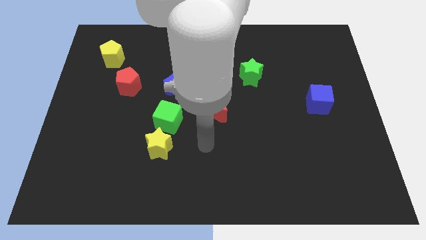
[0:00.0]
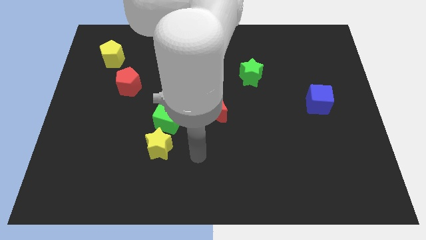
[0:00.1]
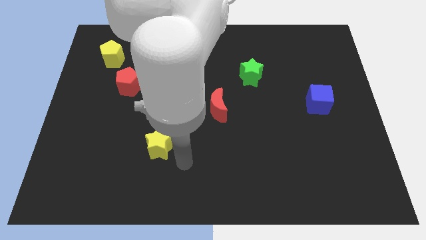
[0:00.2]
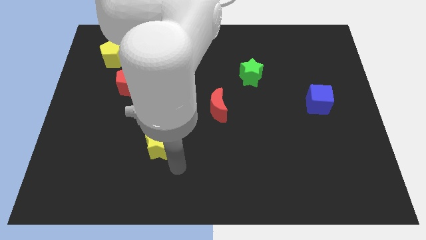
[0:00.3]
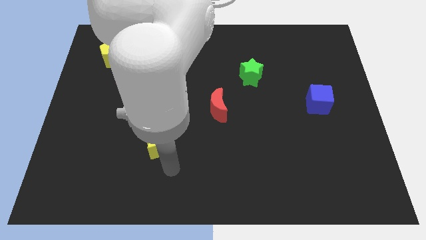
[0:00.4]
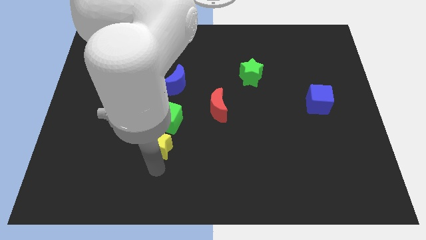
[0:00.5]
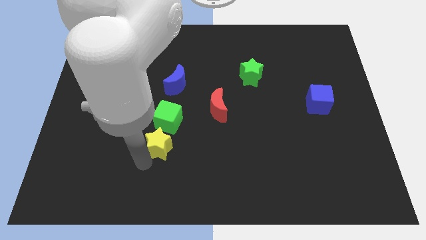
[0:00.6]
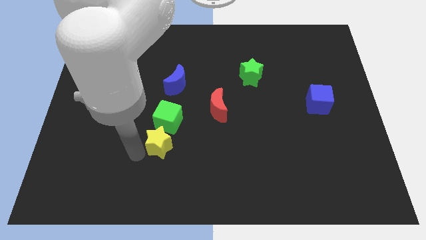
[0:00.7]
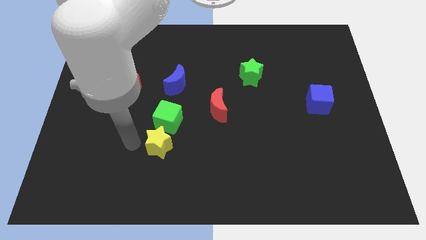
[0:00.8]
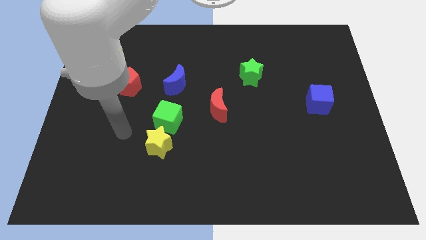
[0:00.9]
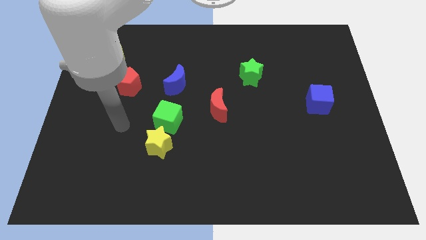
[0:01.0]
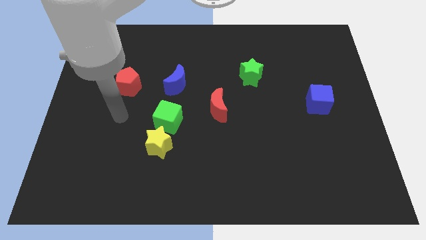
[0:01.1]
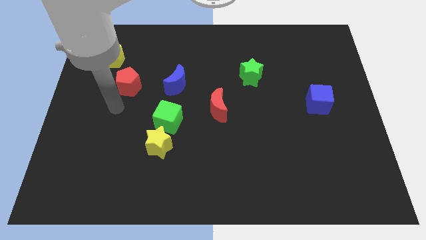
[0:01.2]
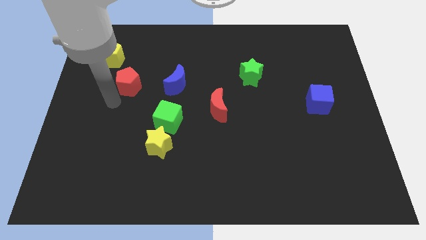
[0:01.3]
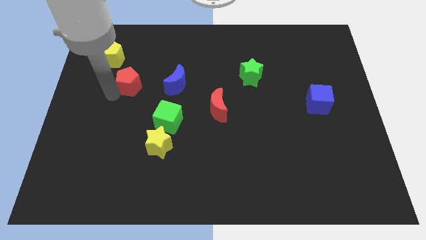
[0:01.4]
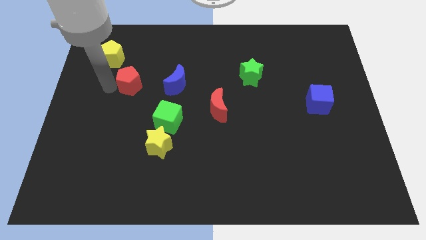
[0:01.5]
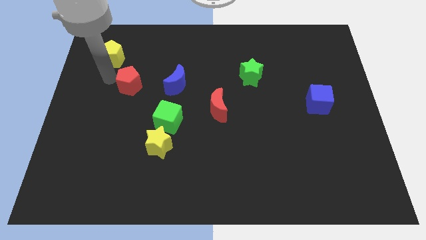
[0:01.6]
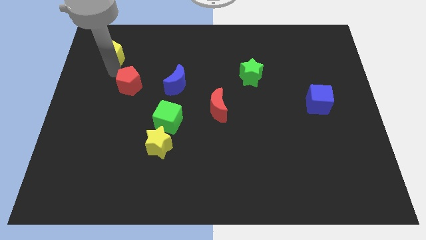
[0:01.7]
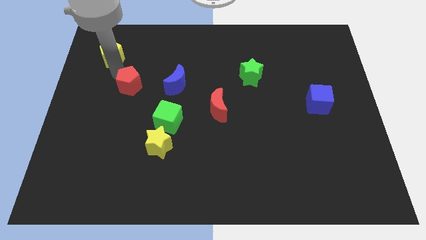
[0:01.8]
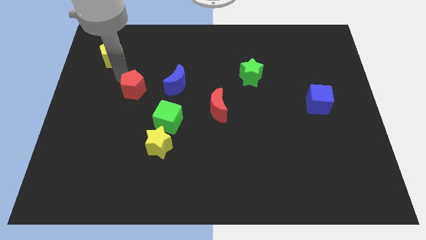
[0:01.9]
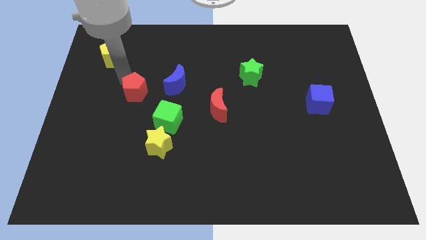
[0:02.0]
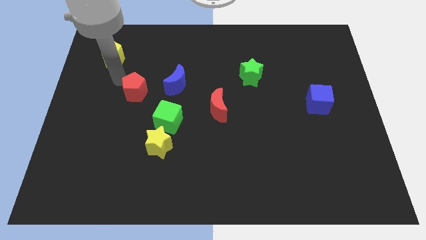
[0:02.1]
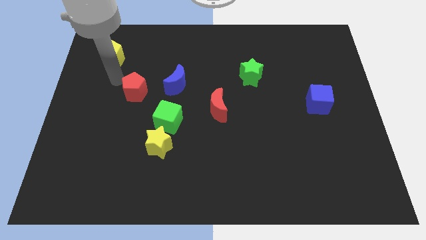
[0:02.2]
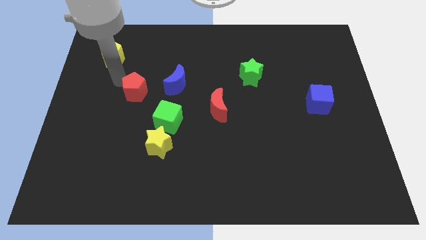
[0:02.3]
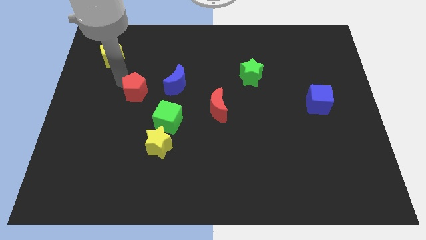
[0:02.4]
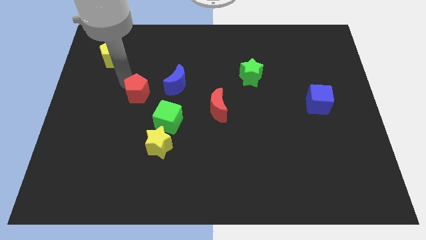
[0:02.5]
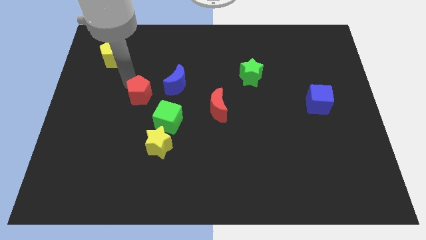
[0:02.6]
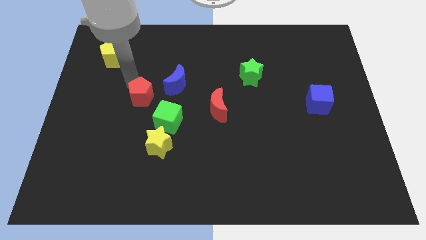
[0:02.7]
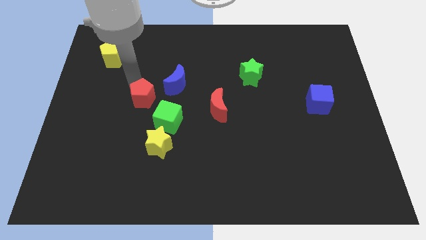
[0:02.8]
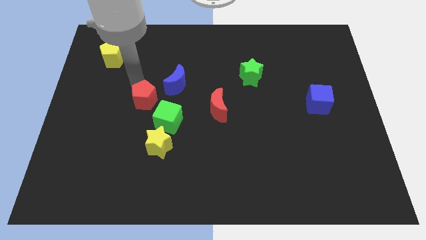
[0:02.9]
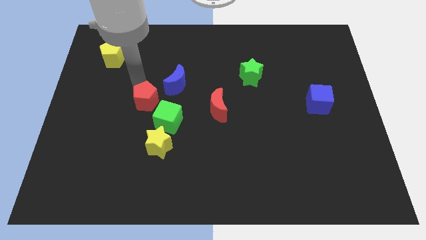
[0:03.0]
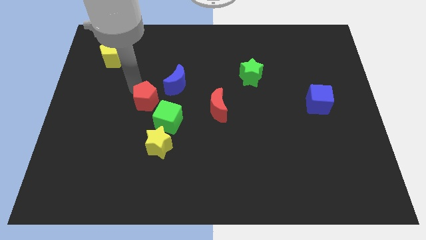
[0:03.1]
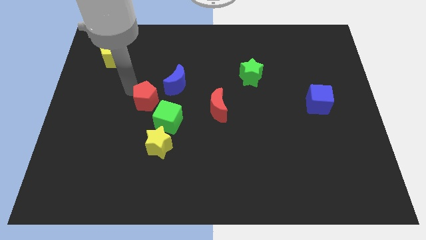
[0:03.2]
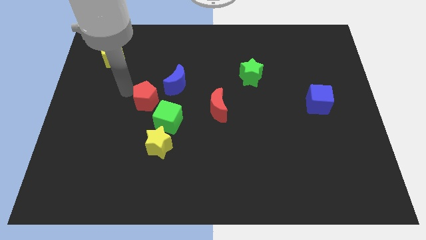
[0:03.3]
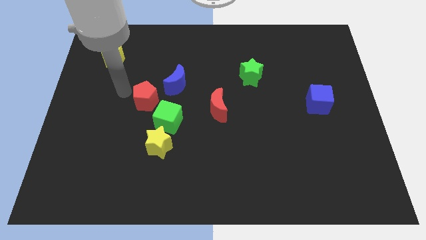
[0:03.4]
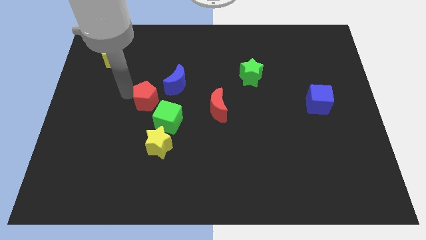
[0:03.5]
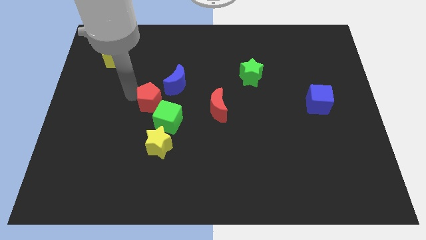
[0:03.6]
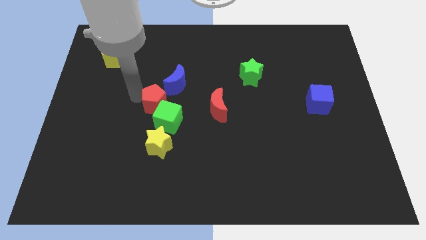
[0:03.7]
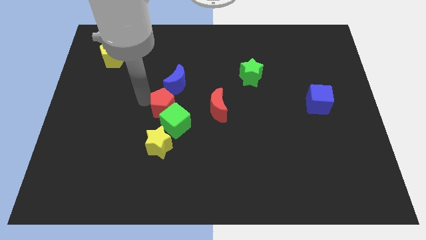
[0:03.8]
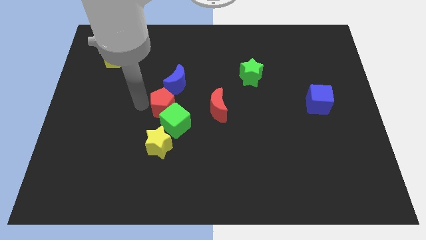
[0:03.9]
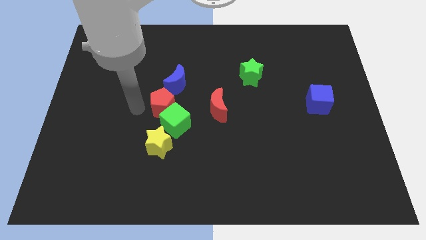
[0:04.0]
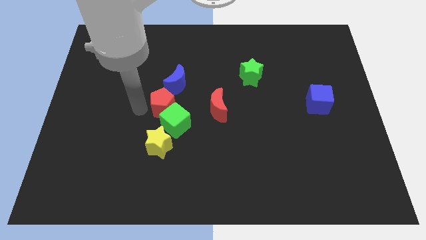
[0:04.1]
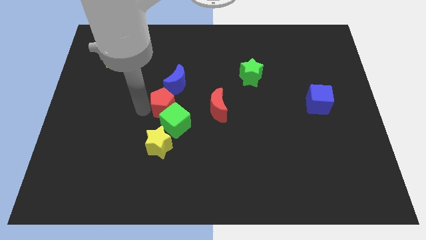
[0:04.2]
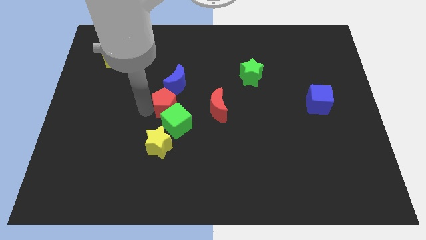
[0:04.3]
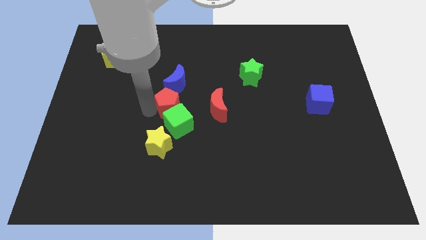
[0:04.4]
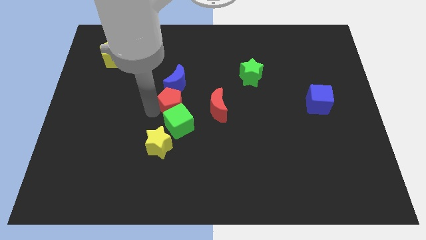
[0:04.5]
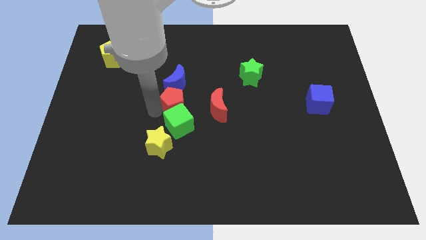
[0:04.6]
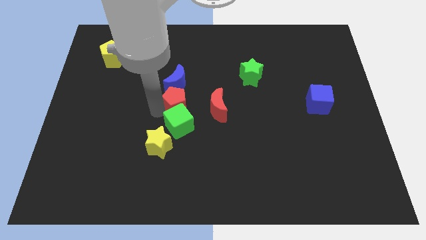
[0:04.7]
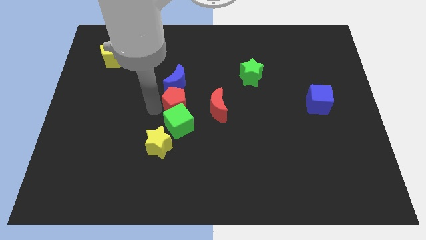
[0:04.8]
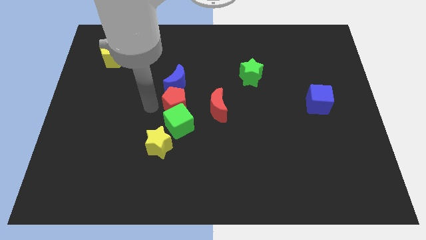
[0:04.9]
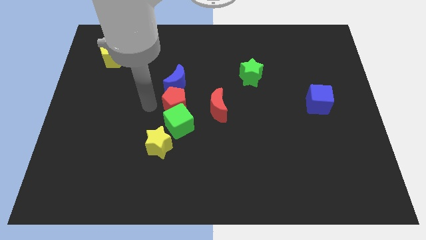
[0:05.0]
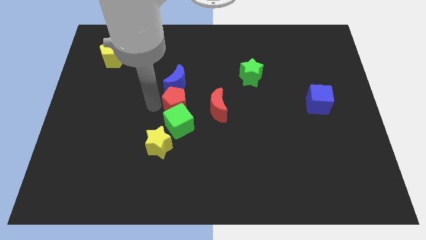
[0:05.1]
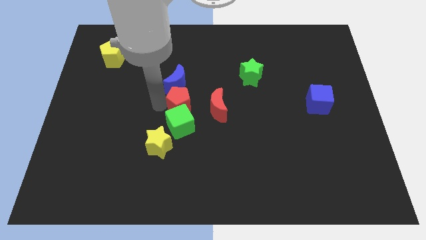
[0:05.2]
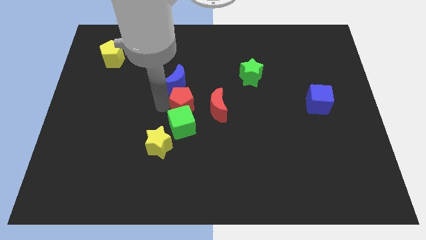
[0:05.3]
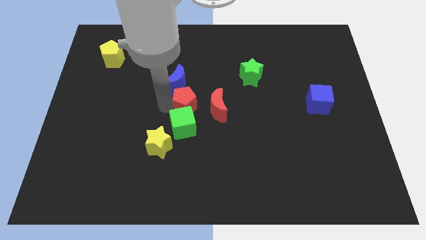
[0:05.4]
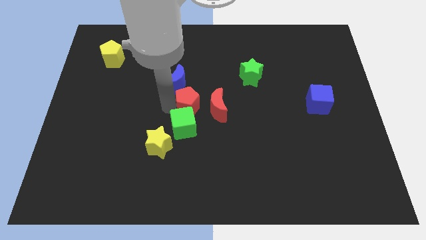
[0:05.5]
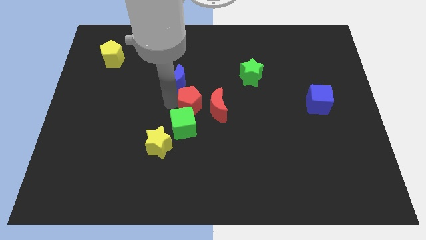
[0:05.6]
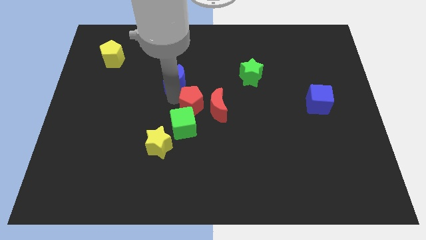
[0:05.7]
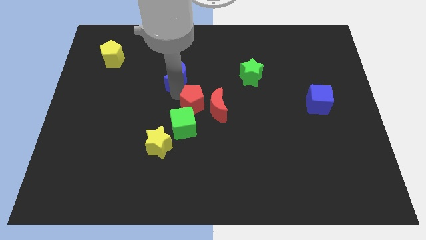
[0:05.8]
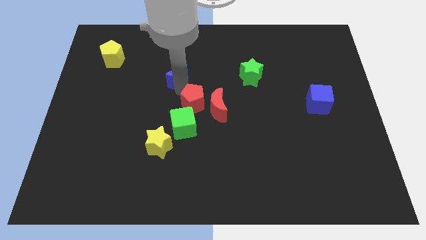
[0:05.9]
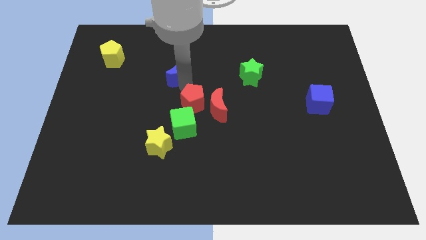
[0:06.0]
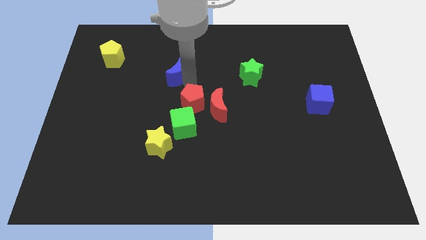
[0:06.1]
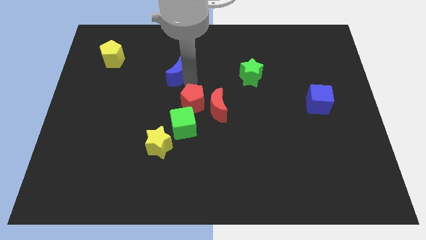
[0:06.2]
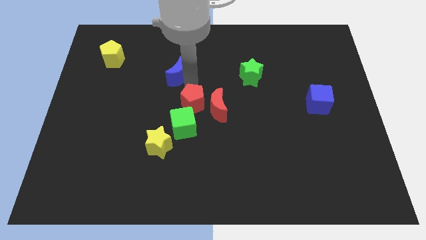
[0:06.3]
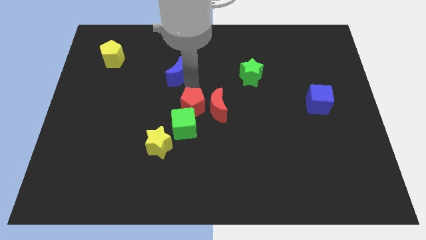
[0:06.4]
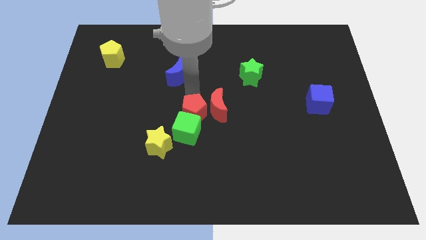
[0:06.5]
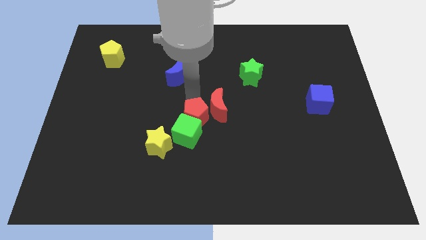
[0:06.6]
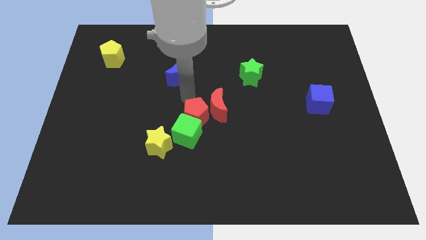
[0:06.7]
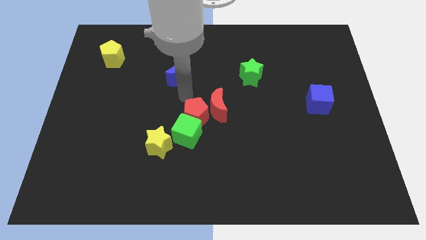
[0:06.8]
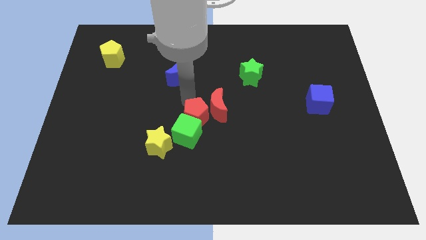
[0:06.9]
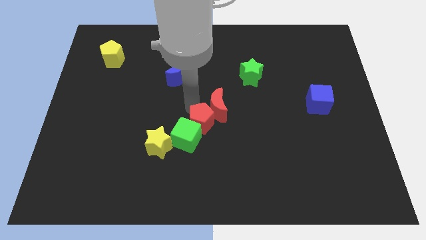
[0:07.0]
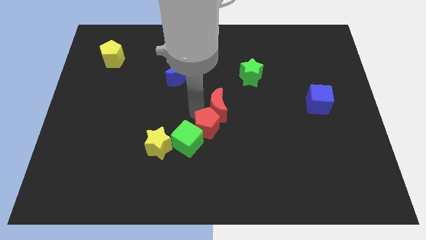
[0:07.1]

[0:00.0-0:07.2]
slide the red pentagon diagonally downwards and right

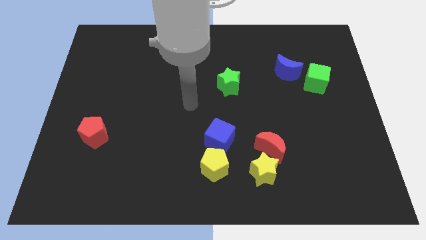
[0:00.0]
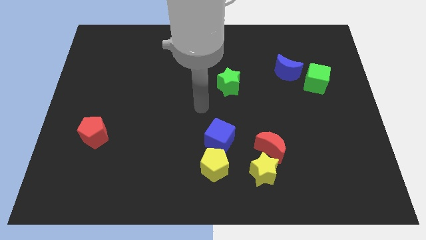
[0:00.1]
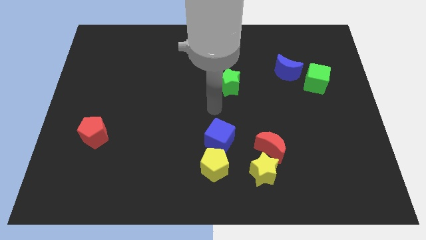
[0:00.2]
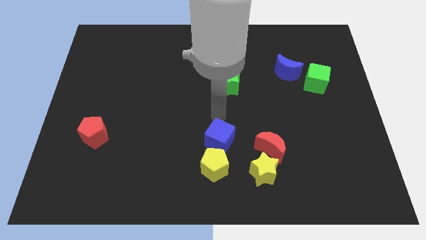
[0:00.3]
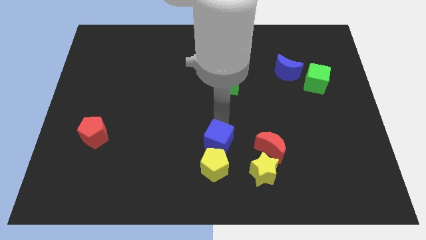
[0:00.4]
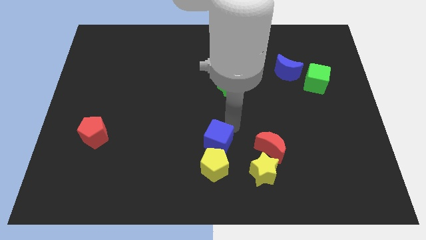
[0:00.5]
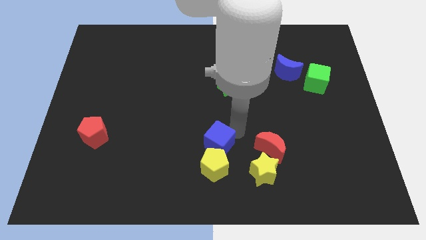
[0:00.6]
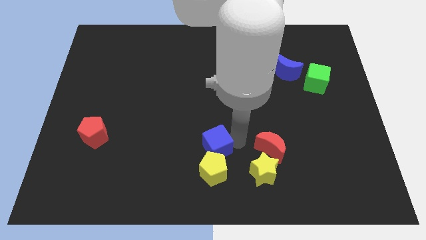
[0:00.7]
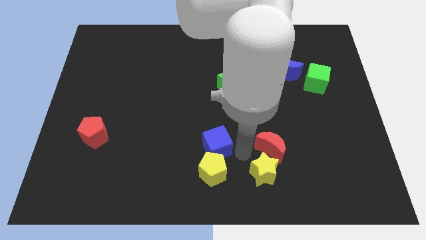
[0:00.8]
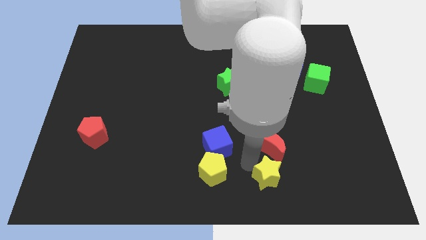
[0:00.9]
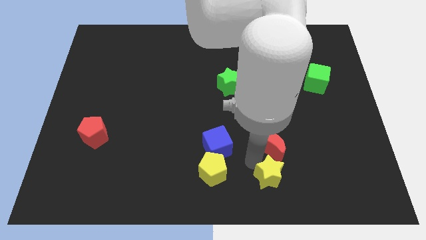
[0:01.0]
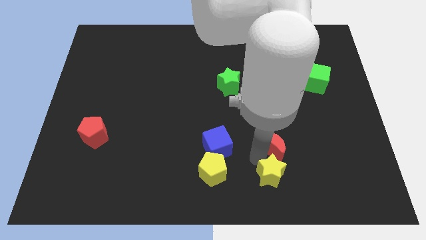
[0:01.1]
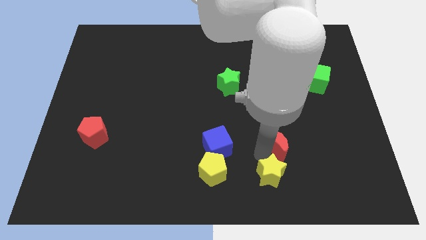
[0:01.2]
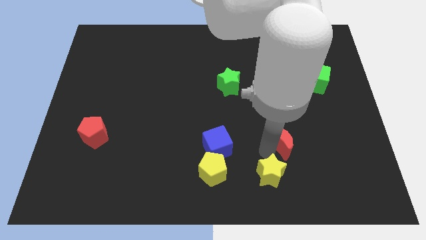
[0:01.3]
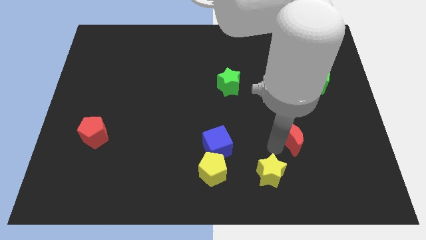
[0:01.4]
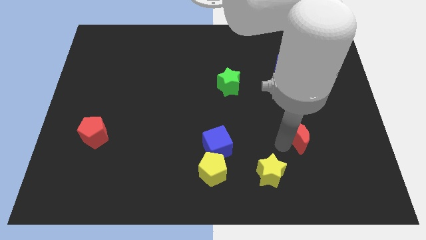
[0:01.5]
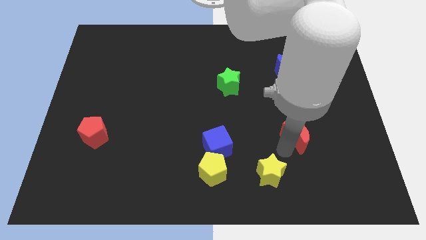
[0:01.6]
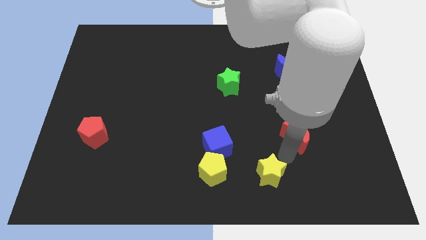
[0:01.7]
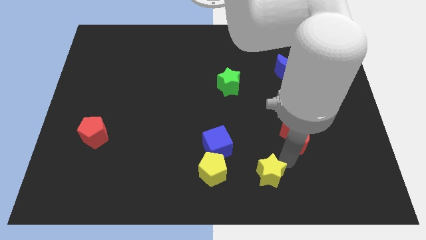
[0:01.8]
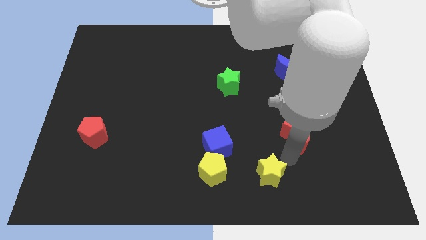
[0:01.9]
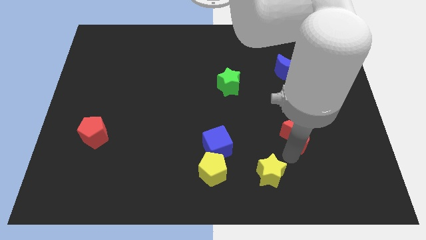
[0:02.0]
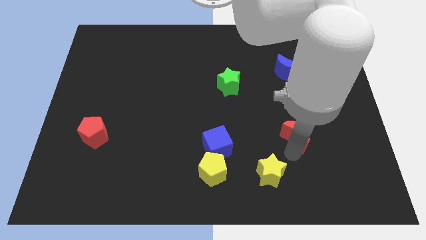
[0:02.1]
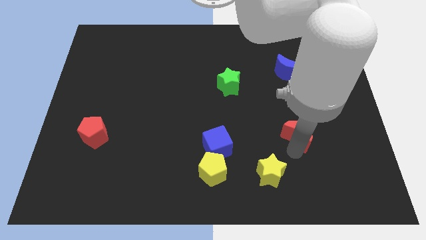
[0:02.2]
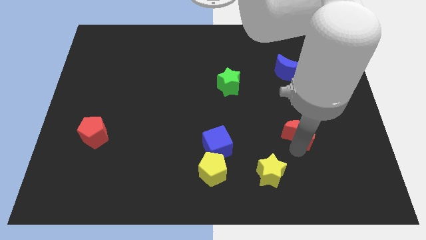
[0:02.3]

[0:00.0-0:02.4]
move the red moon a bit up and to the right diagonally
